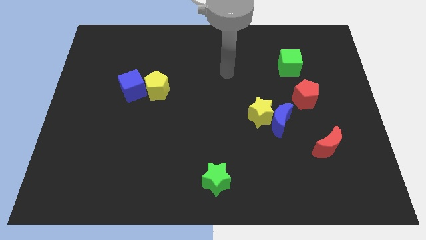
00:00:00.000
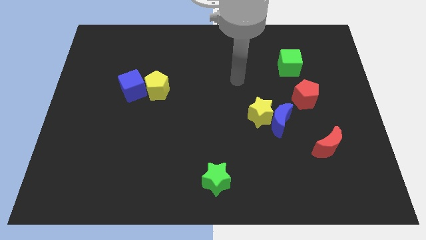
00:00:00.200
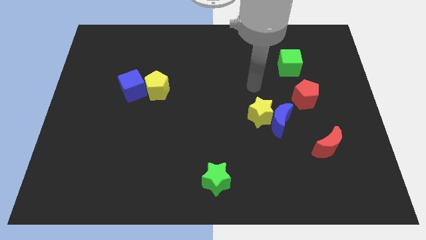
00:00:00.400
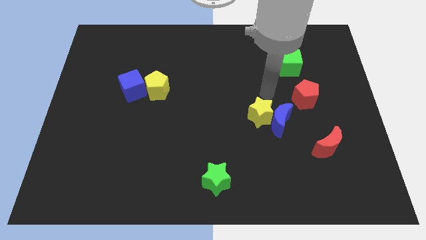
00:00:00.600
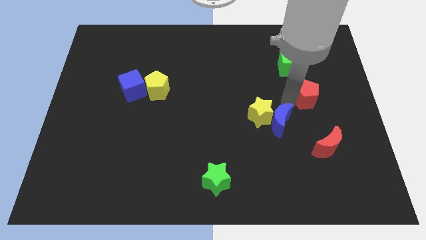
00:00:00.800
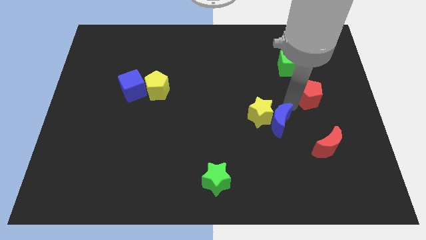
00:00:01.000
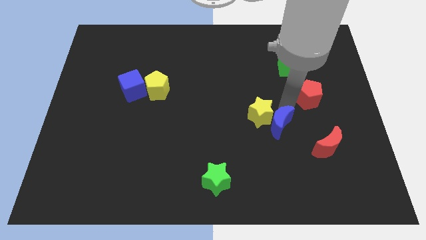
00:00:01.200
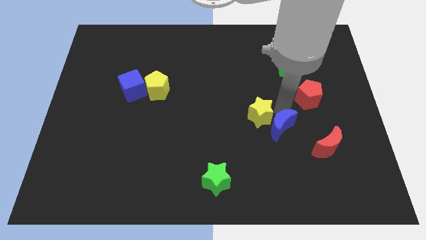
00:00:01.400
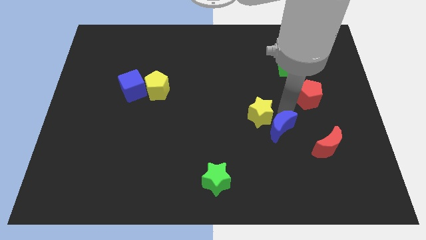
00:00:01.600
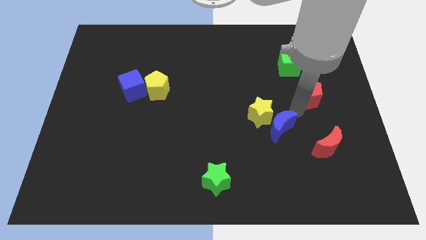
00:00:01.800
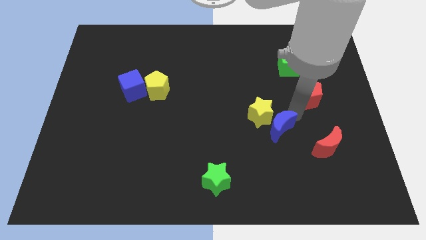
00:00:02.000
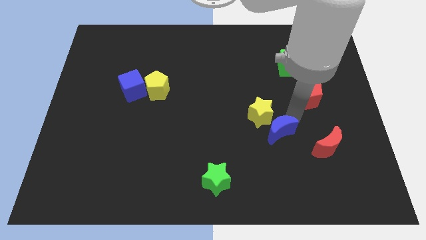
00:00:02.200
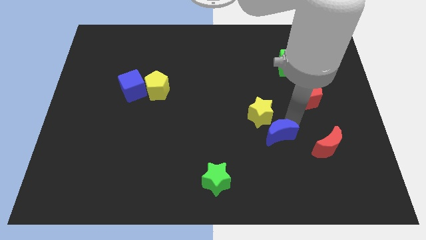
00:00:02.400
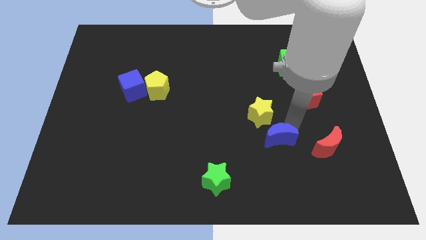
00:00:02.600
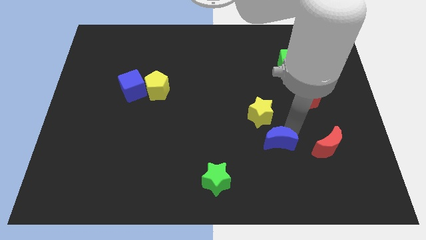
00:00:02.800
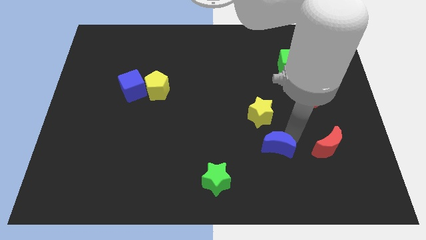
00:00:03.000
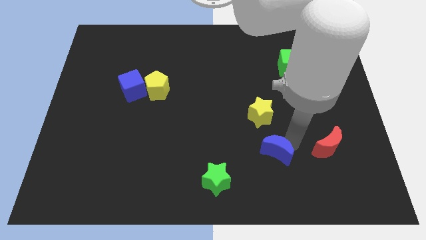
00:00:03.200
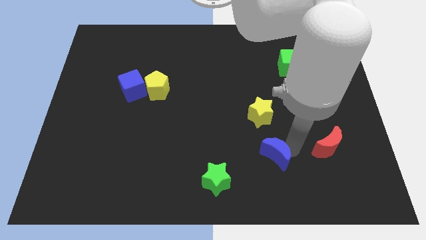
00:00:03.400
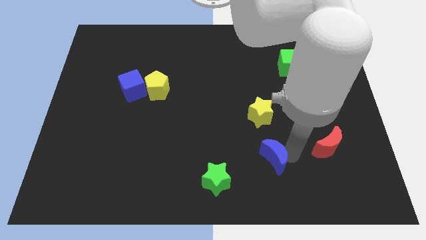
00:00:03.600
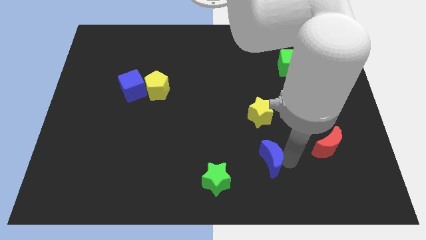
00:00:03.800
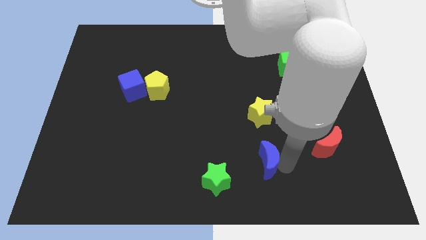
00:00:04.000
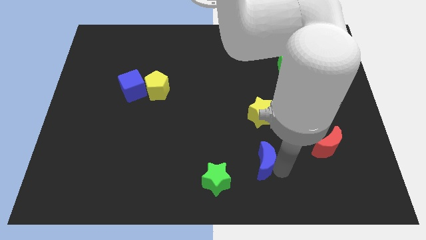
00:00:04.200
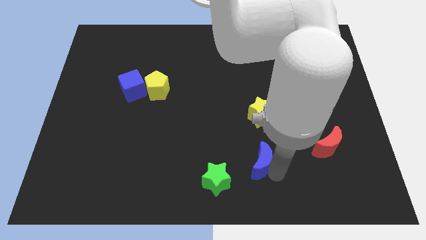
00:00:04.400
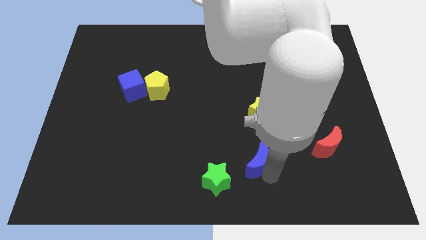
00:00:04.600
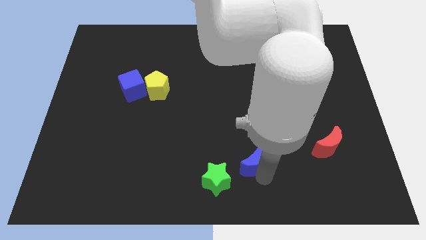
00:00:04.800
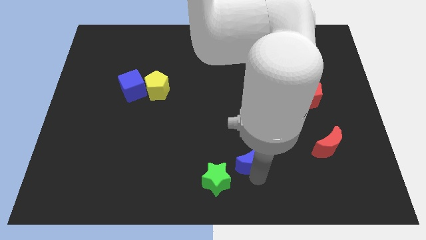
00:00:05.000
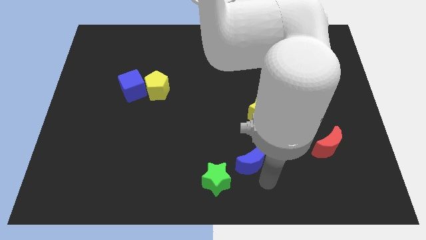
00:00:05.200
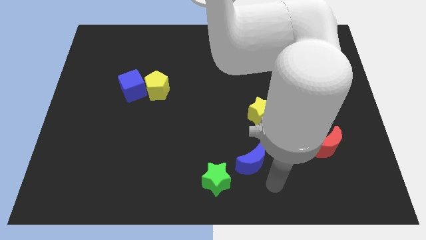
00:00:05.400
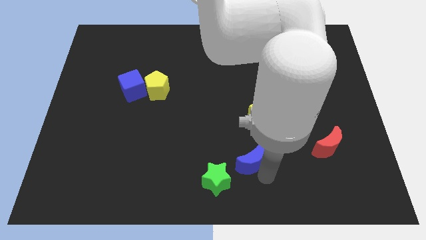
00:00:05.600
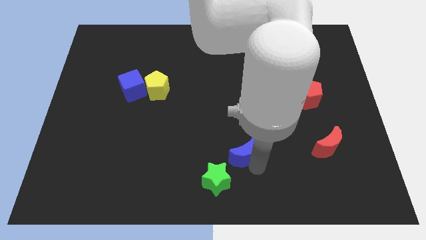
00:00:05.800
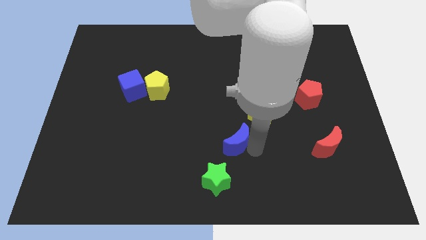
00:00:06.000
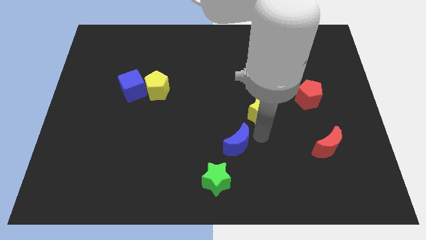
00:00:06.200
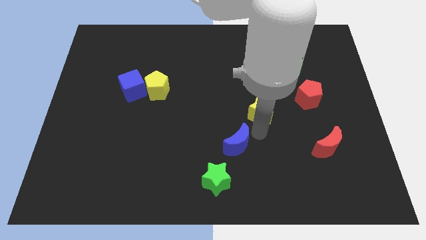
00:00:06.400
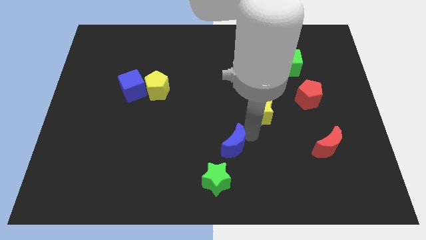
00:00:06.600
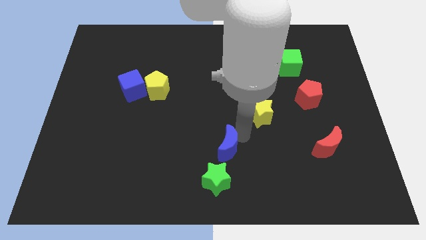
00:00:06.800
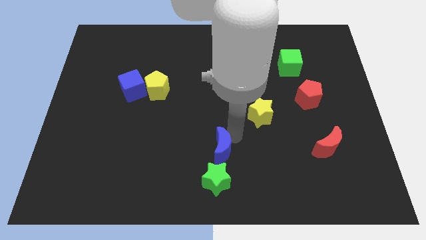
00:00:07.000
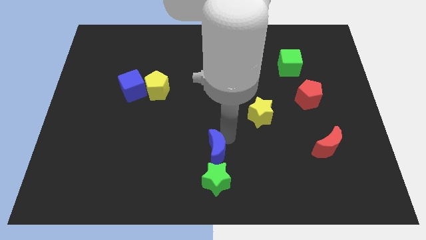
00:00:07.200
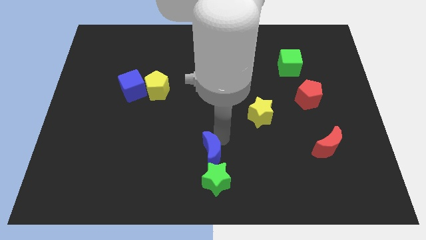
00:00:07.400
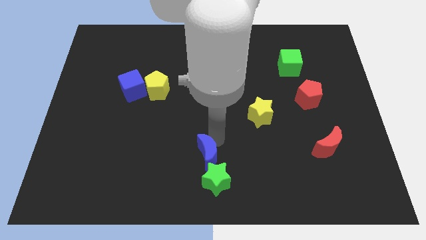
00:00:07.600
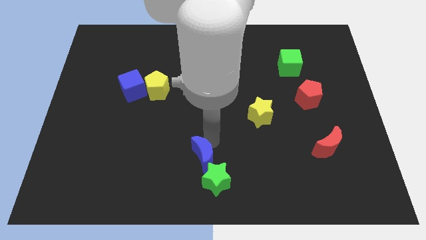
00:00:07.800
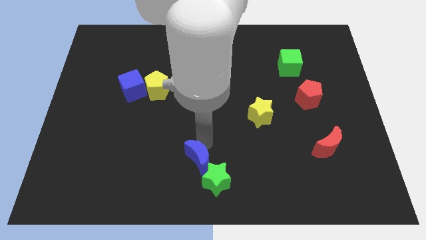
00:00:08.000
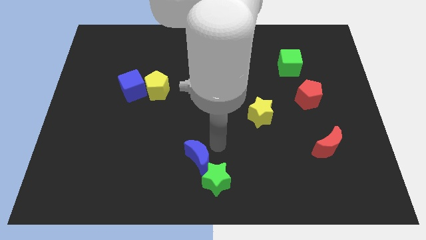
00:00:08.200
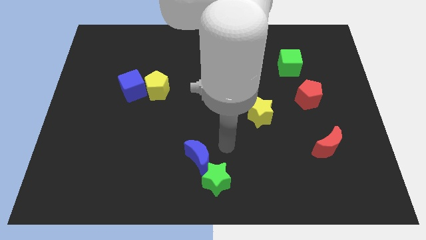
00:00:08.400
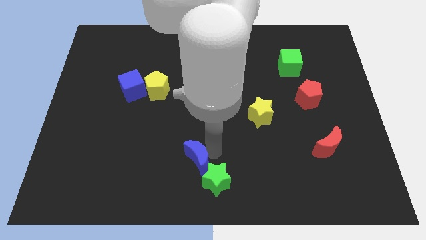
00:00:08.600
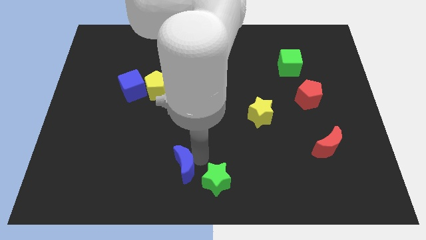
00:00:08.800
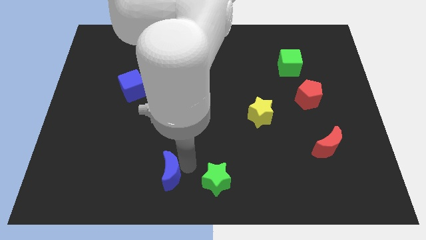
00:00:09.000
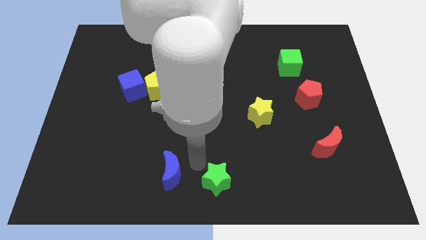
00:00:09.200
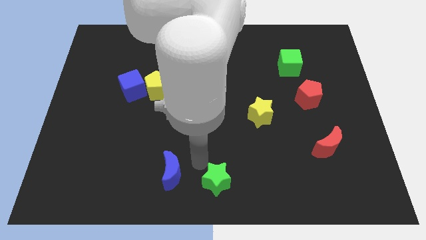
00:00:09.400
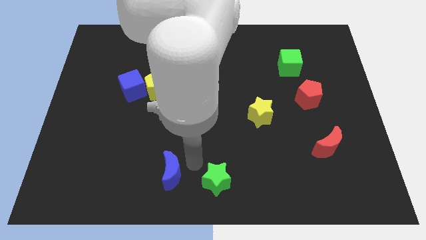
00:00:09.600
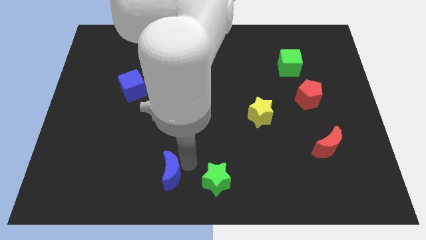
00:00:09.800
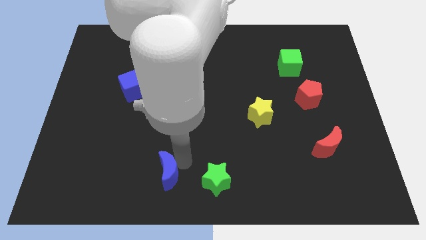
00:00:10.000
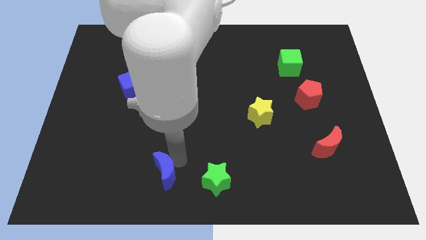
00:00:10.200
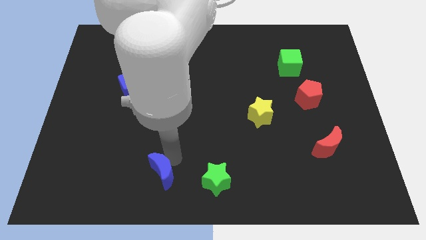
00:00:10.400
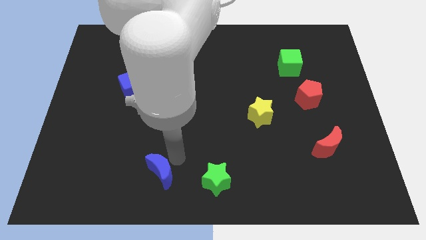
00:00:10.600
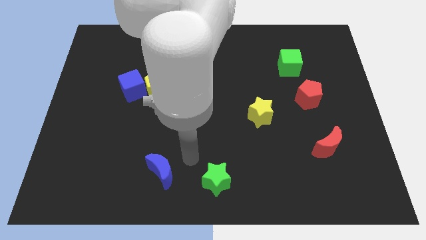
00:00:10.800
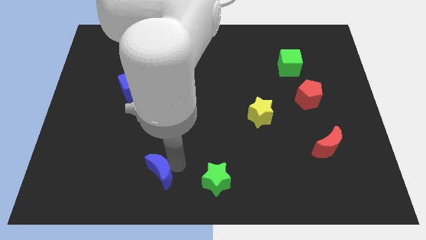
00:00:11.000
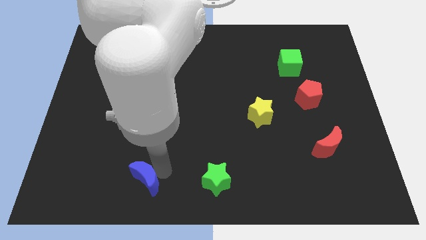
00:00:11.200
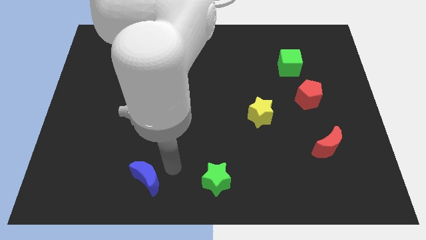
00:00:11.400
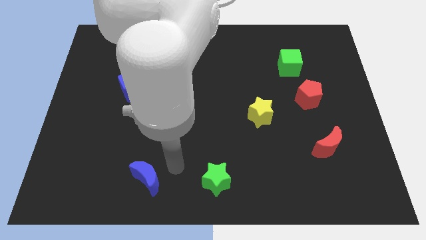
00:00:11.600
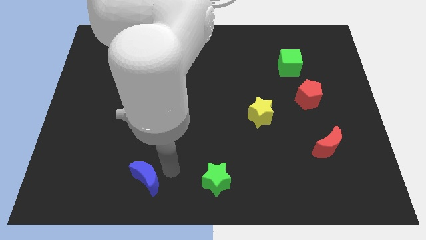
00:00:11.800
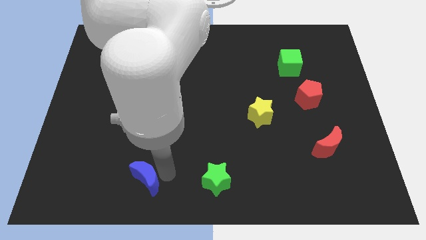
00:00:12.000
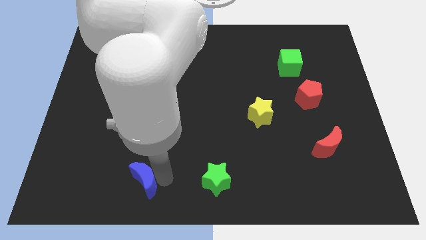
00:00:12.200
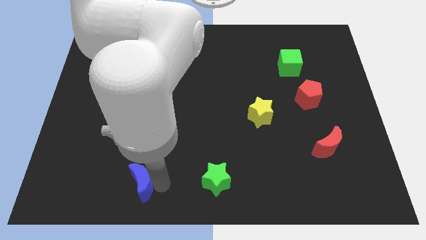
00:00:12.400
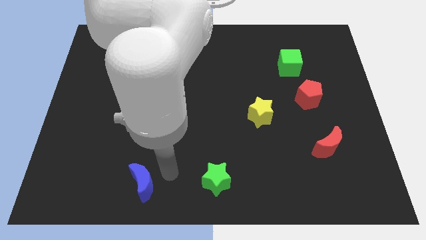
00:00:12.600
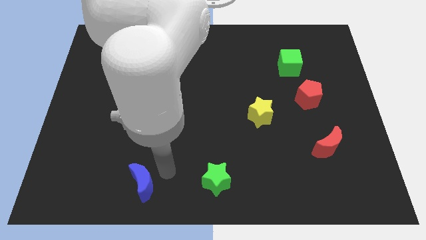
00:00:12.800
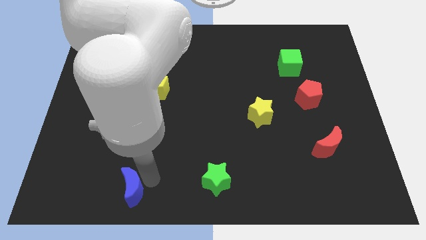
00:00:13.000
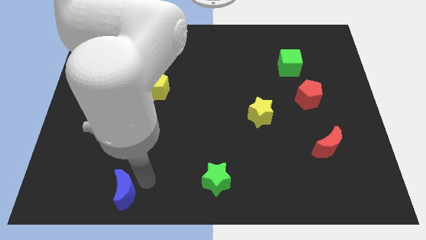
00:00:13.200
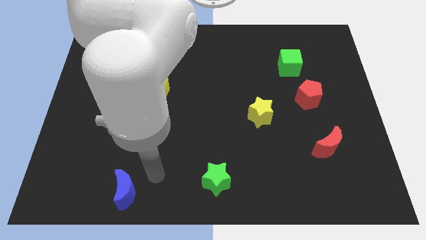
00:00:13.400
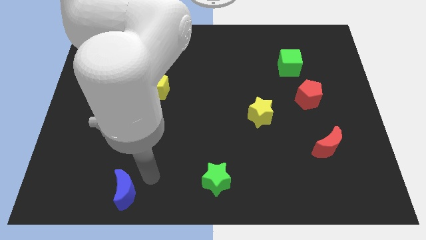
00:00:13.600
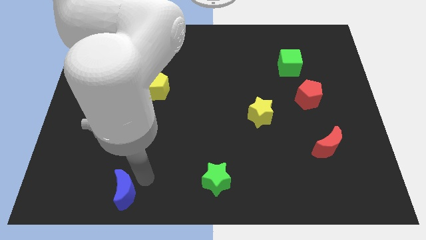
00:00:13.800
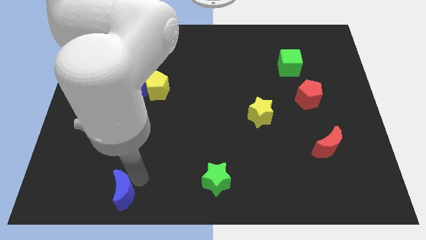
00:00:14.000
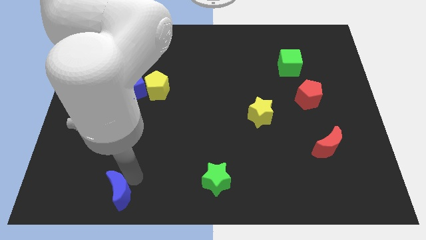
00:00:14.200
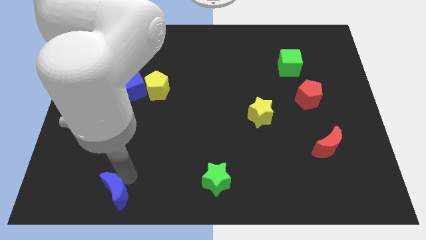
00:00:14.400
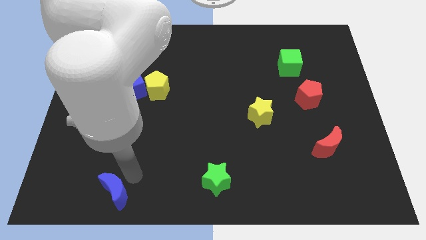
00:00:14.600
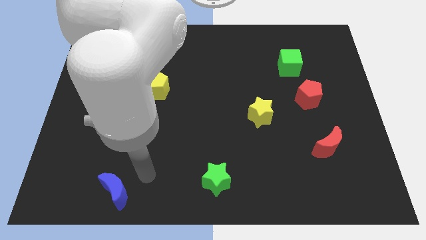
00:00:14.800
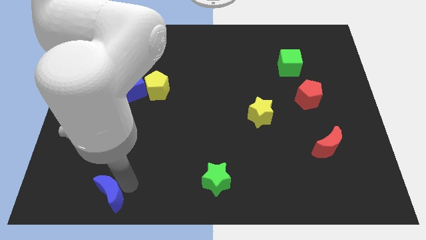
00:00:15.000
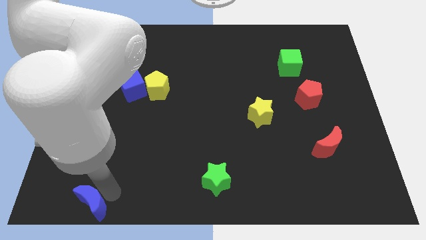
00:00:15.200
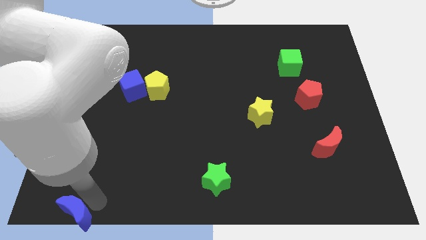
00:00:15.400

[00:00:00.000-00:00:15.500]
slide the blue moon to the bottom left corner
